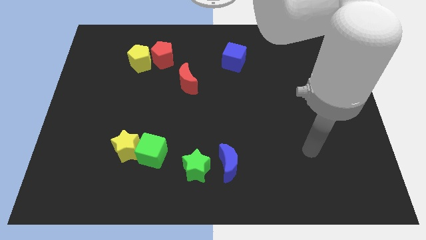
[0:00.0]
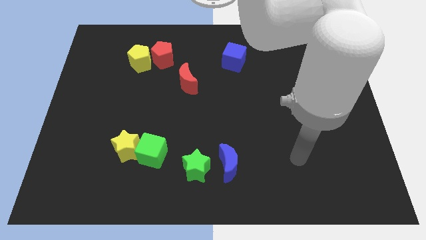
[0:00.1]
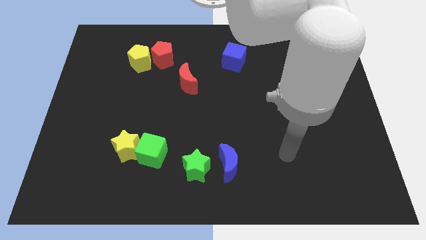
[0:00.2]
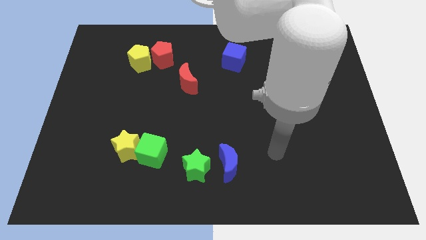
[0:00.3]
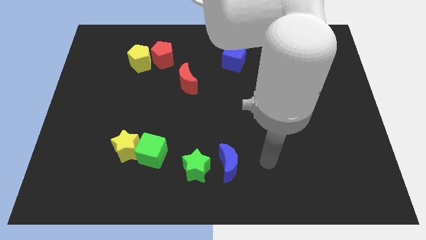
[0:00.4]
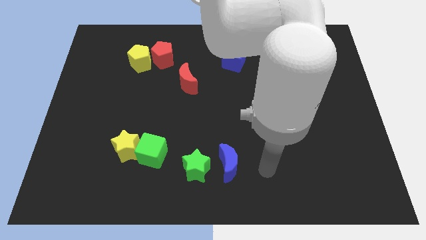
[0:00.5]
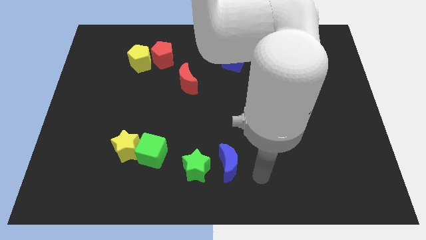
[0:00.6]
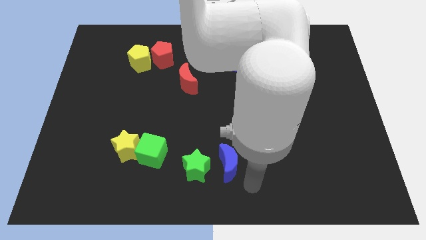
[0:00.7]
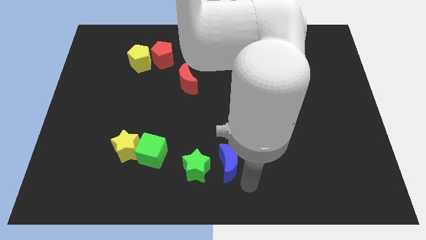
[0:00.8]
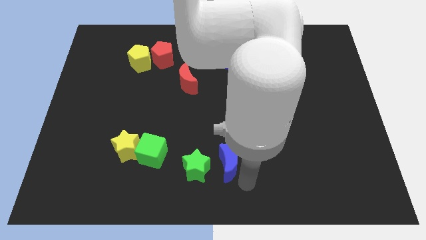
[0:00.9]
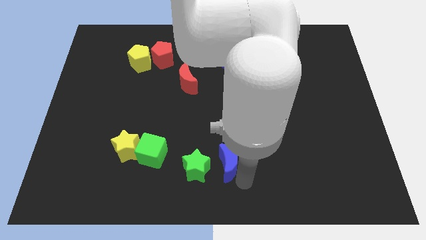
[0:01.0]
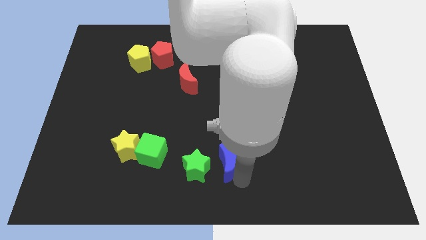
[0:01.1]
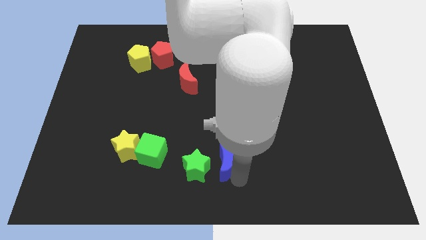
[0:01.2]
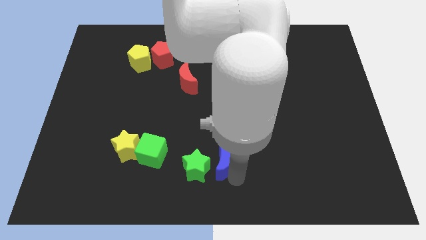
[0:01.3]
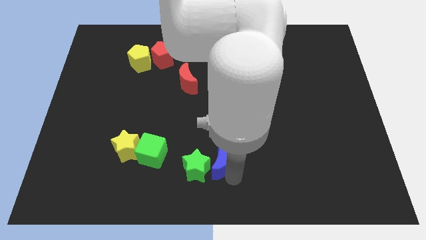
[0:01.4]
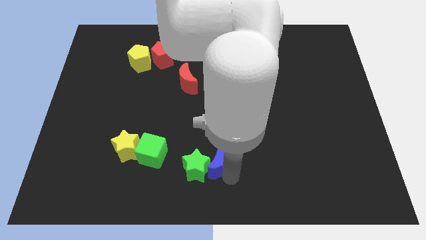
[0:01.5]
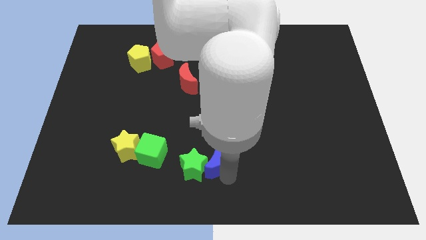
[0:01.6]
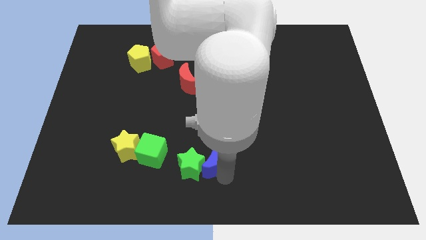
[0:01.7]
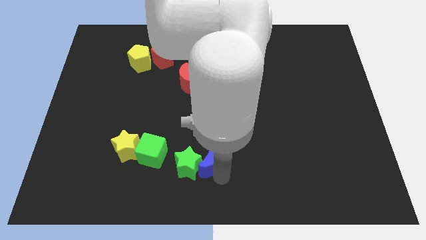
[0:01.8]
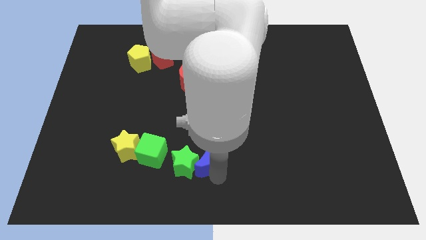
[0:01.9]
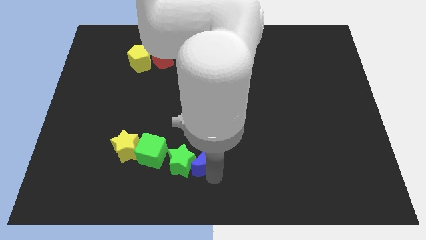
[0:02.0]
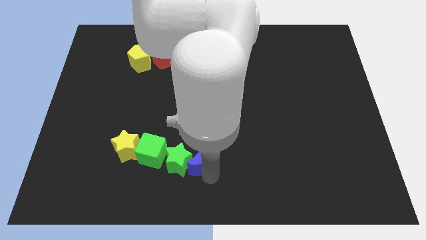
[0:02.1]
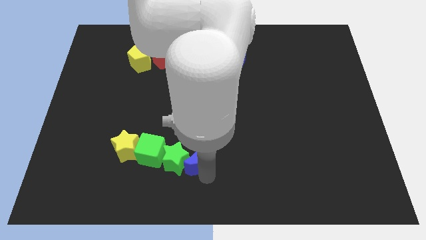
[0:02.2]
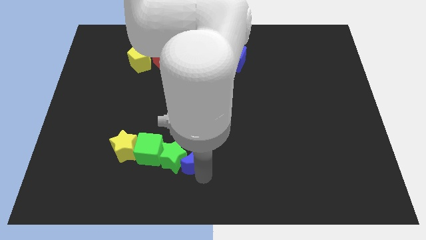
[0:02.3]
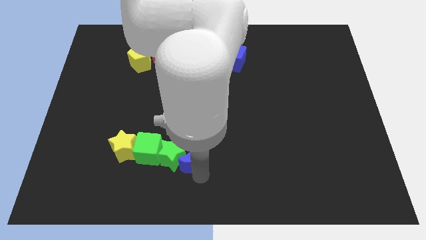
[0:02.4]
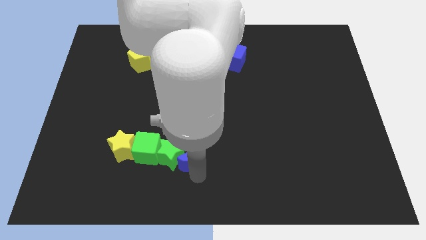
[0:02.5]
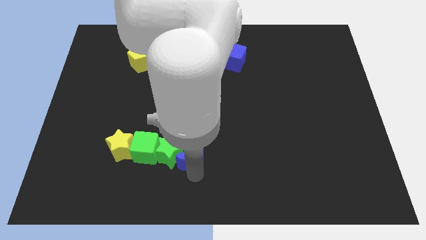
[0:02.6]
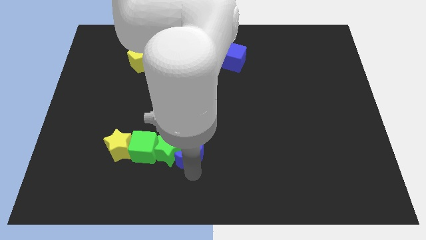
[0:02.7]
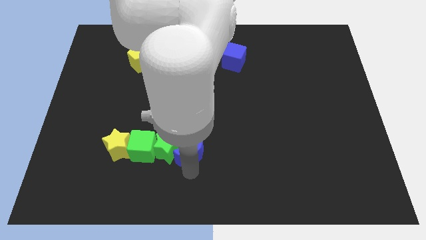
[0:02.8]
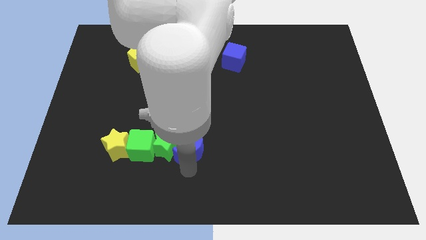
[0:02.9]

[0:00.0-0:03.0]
push the blue moon diagonally up and to the left slightly

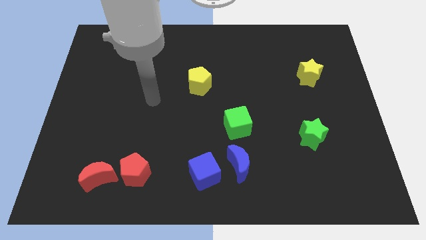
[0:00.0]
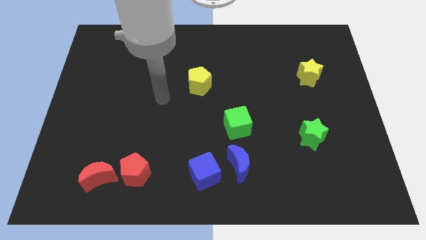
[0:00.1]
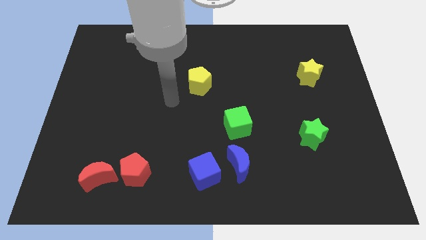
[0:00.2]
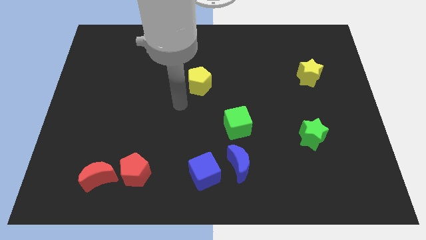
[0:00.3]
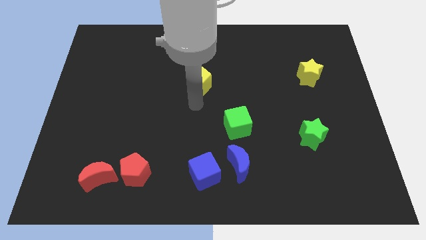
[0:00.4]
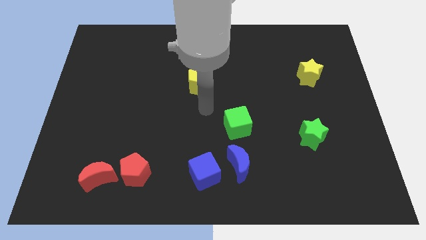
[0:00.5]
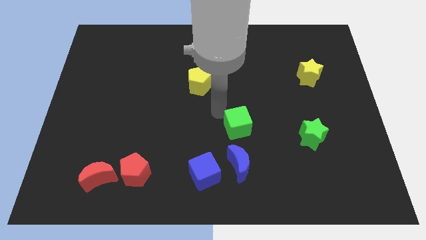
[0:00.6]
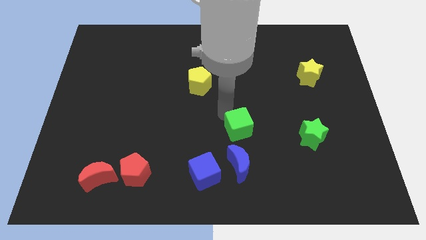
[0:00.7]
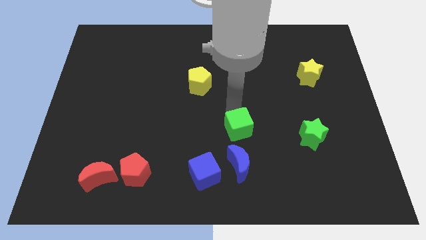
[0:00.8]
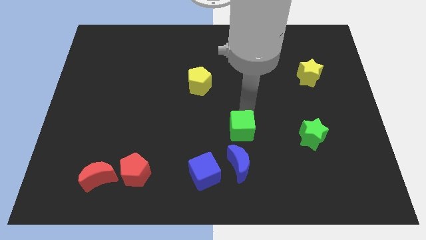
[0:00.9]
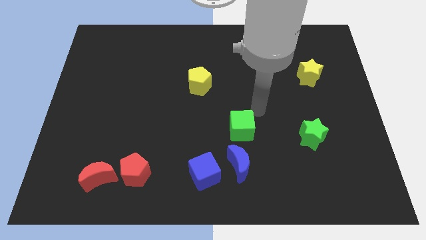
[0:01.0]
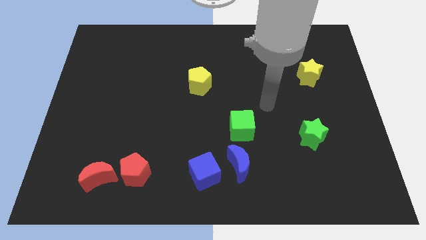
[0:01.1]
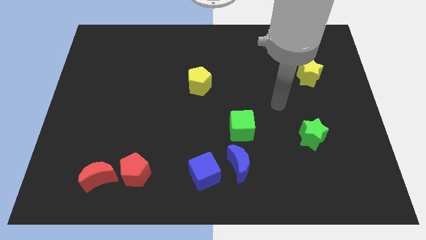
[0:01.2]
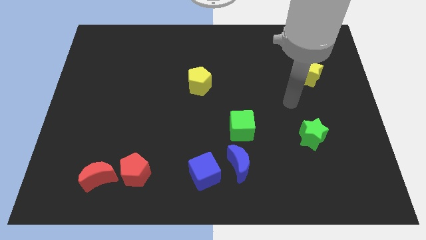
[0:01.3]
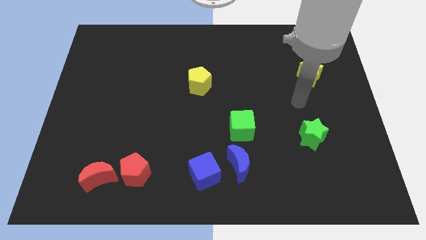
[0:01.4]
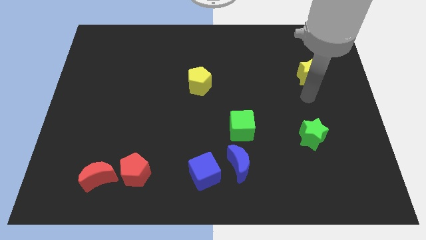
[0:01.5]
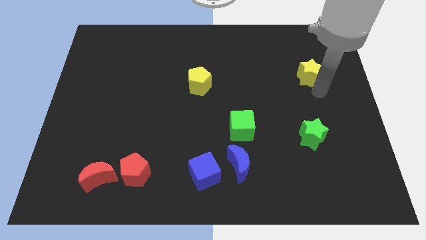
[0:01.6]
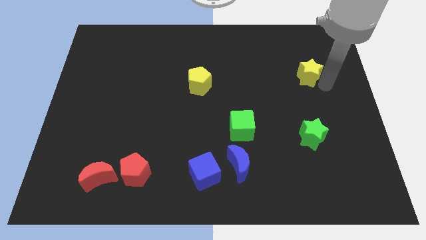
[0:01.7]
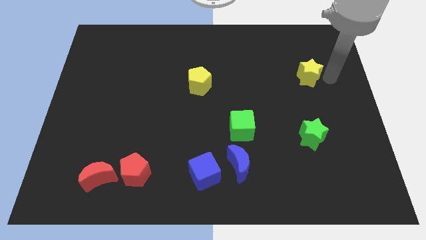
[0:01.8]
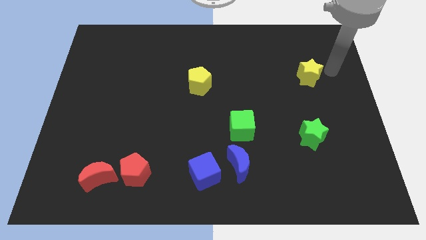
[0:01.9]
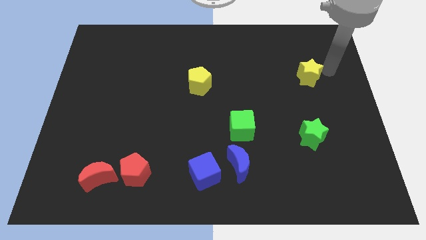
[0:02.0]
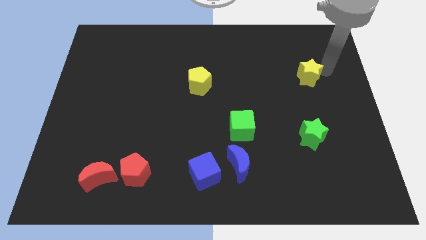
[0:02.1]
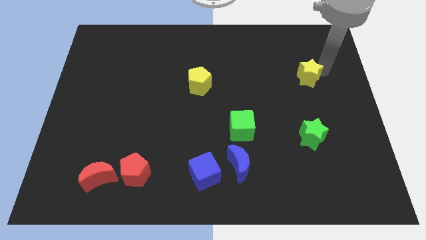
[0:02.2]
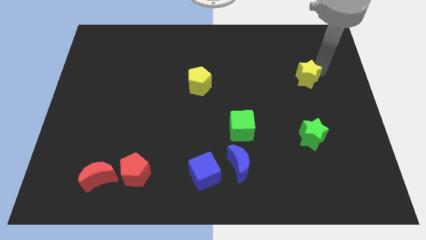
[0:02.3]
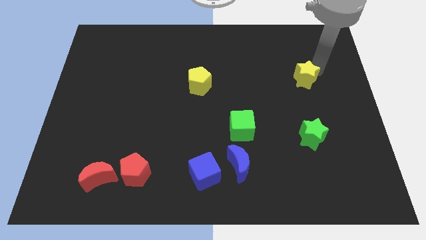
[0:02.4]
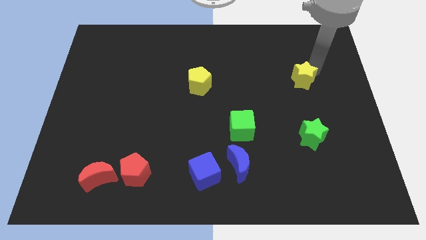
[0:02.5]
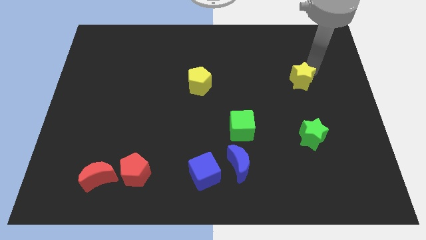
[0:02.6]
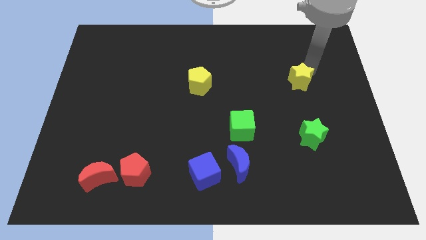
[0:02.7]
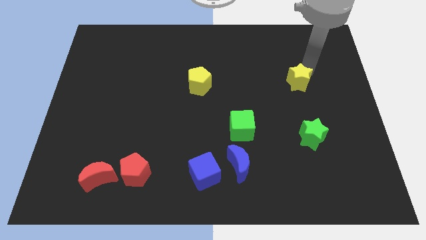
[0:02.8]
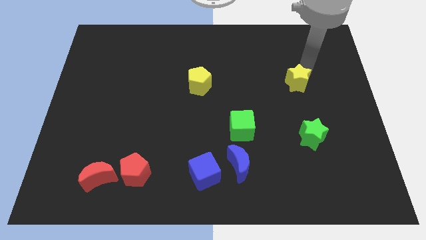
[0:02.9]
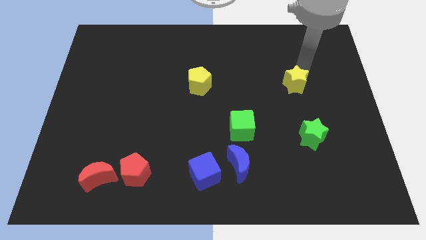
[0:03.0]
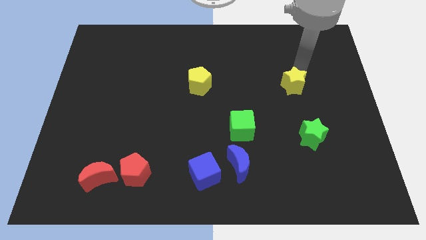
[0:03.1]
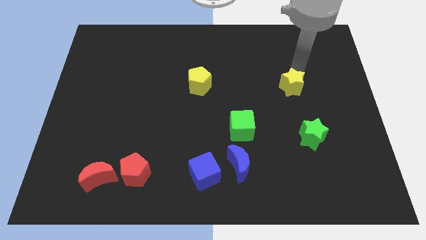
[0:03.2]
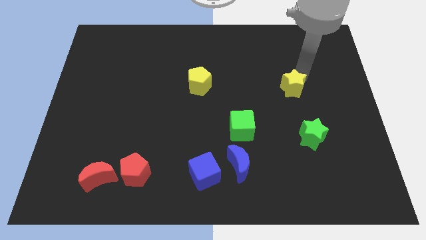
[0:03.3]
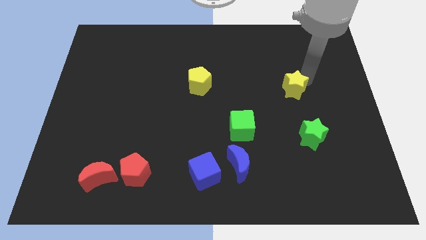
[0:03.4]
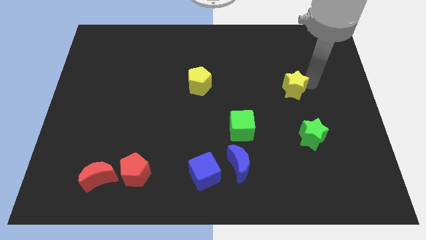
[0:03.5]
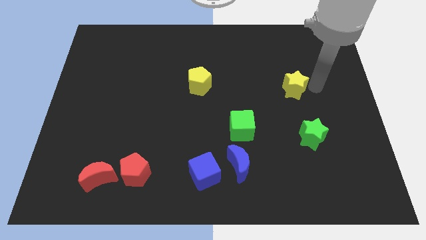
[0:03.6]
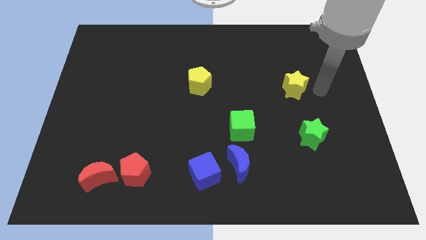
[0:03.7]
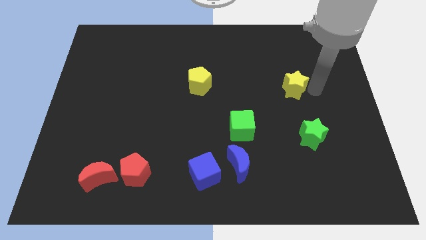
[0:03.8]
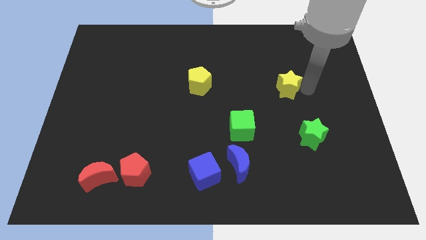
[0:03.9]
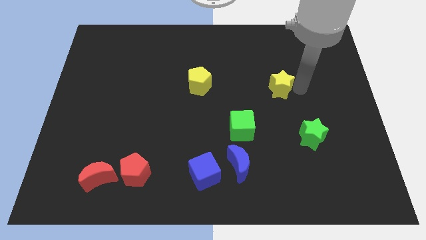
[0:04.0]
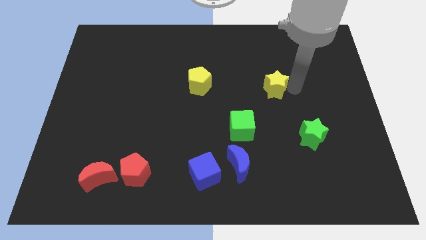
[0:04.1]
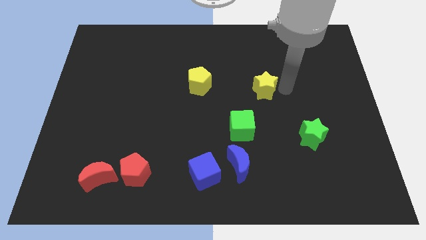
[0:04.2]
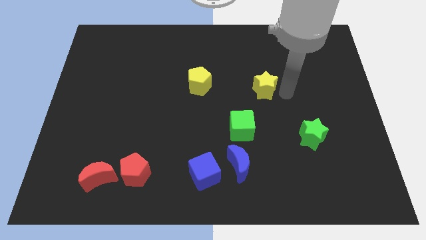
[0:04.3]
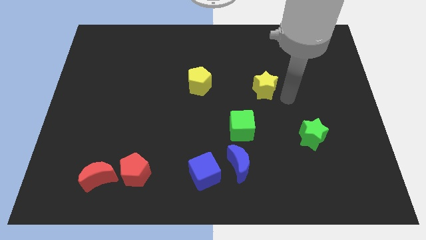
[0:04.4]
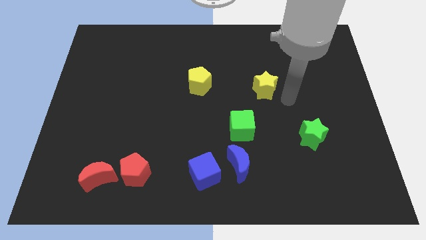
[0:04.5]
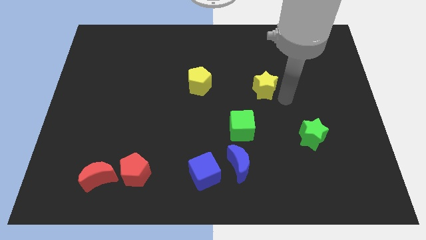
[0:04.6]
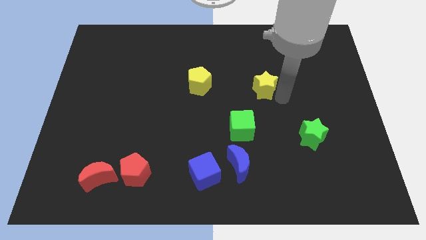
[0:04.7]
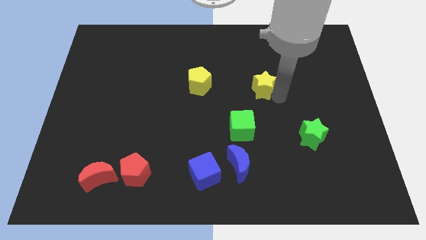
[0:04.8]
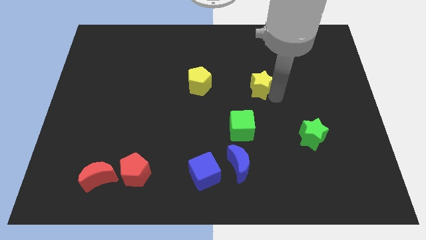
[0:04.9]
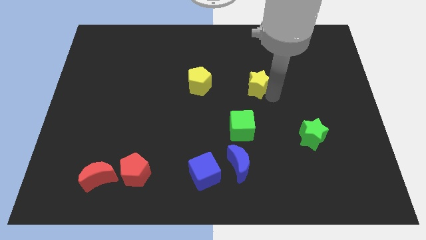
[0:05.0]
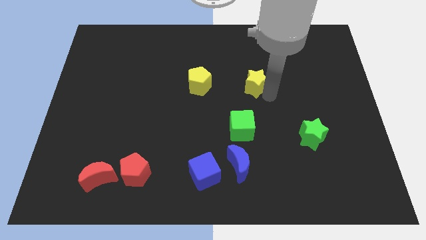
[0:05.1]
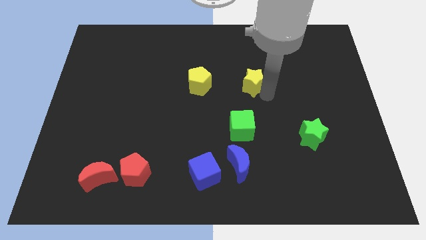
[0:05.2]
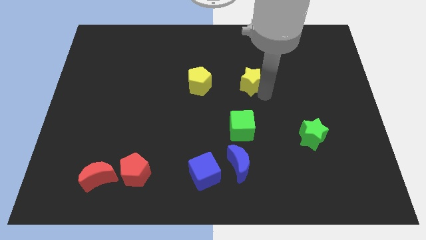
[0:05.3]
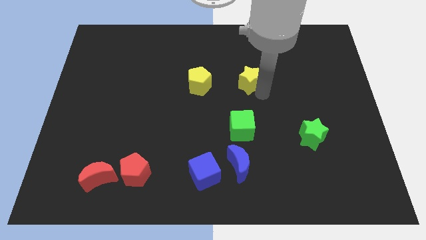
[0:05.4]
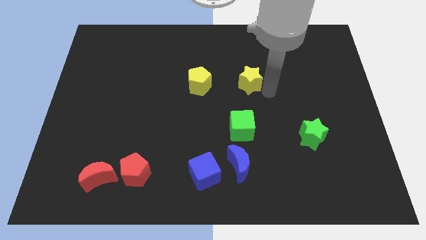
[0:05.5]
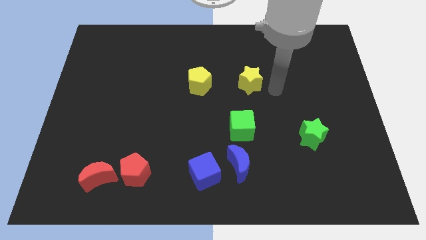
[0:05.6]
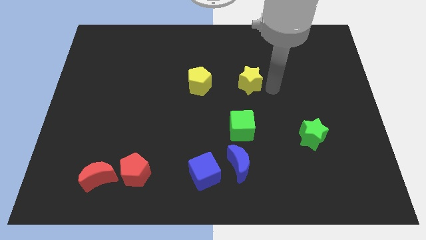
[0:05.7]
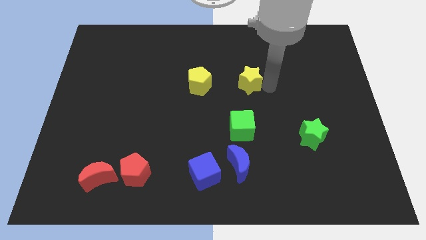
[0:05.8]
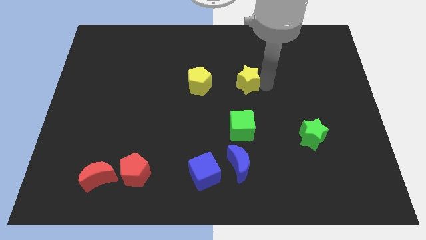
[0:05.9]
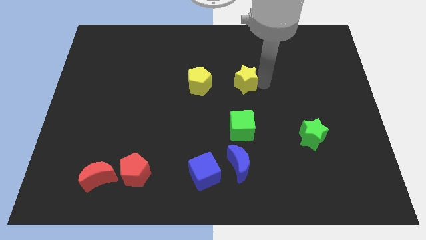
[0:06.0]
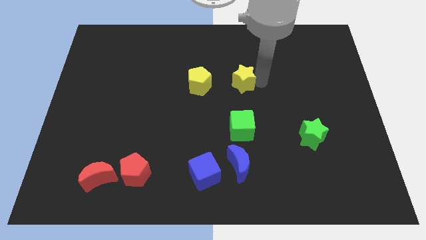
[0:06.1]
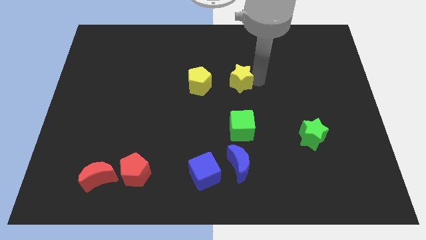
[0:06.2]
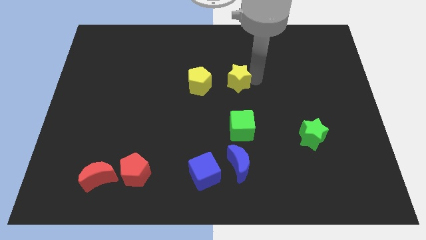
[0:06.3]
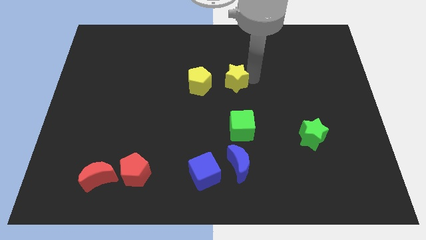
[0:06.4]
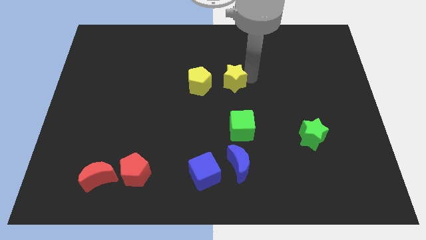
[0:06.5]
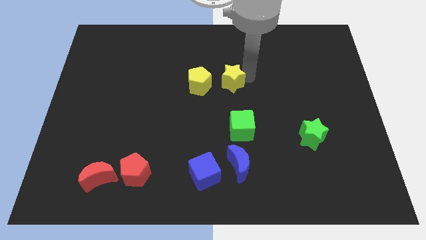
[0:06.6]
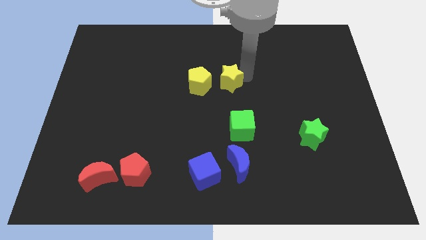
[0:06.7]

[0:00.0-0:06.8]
push the yellow star left
